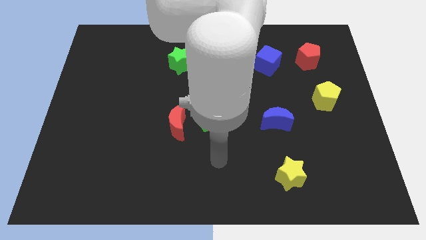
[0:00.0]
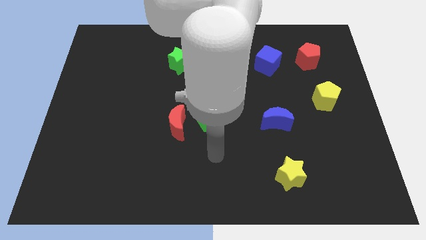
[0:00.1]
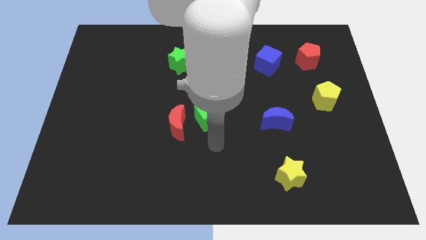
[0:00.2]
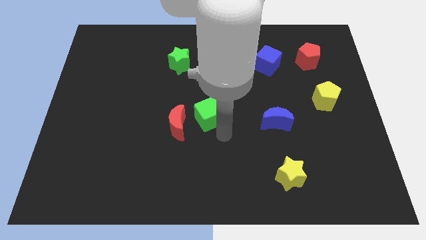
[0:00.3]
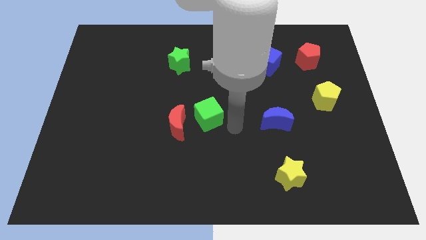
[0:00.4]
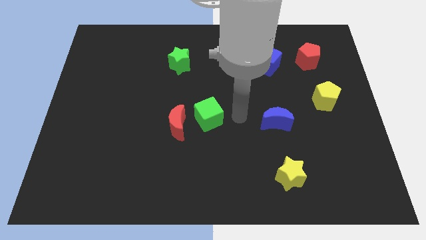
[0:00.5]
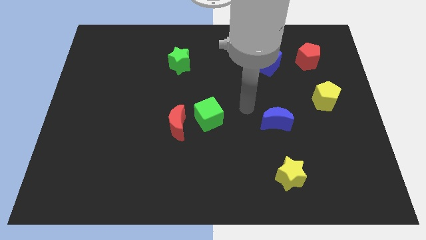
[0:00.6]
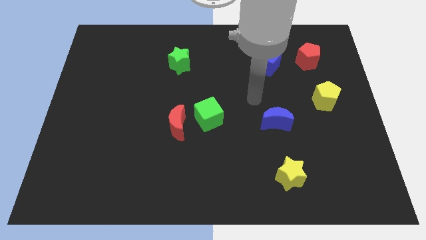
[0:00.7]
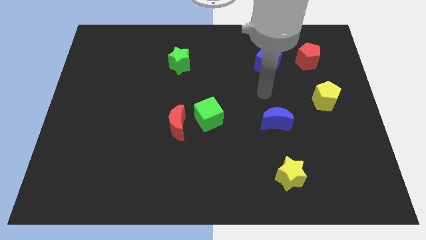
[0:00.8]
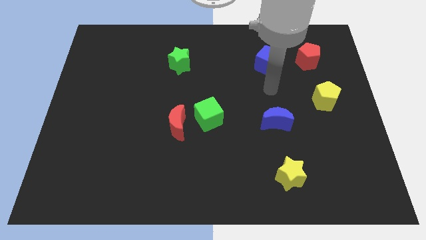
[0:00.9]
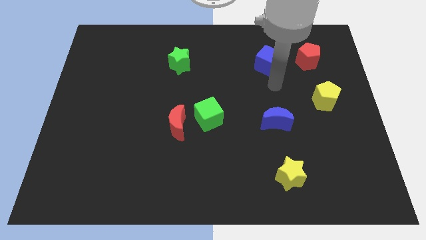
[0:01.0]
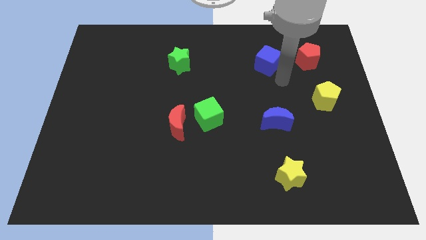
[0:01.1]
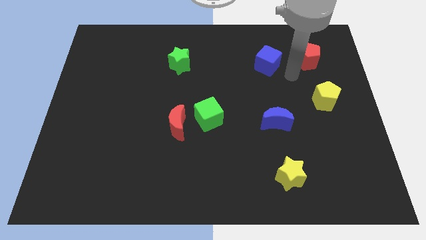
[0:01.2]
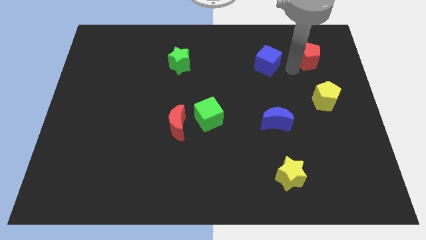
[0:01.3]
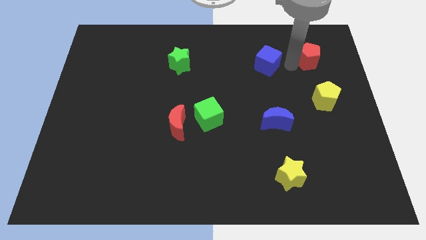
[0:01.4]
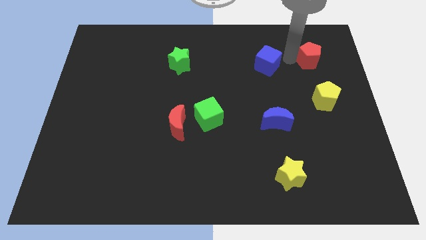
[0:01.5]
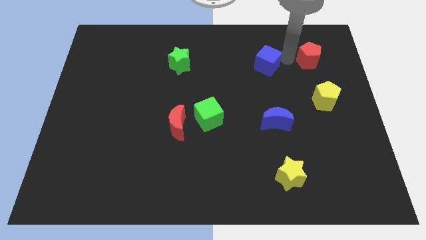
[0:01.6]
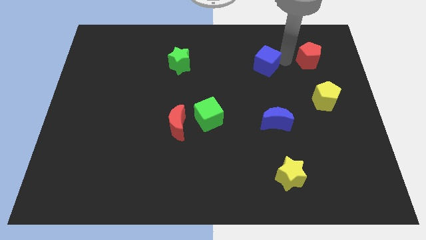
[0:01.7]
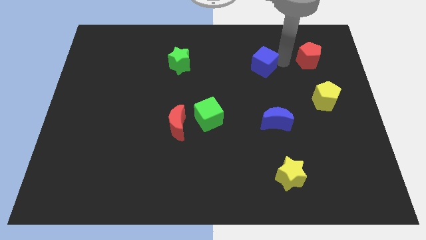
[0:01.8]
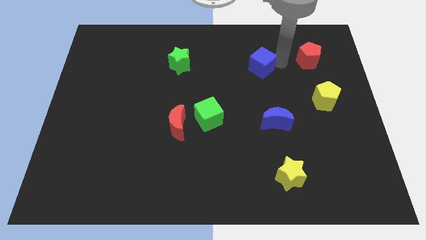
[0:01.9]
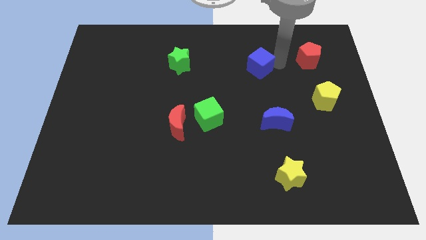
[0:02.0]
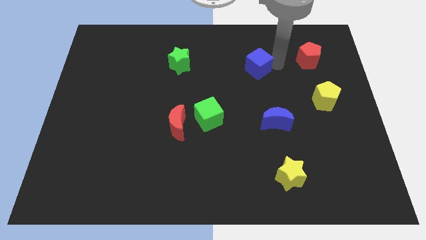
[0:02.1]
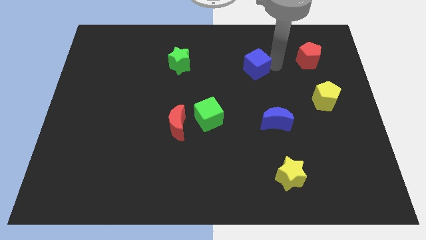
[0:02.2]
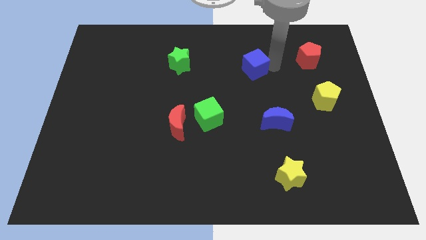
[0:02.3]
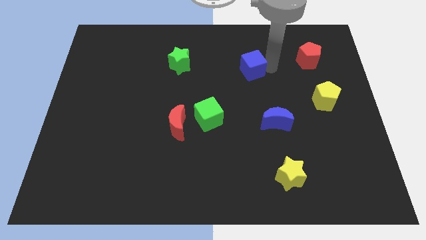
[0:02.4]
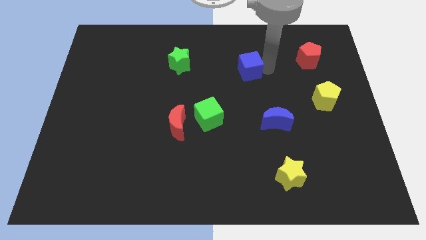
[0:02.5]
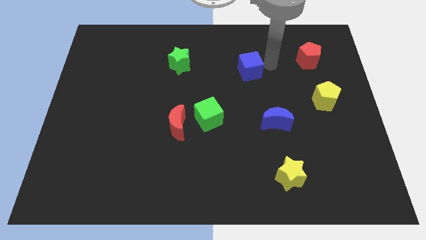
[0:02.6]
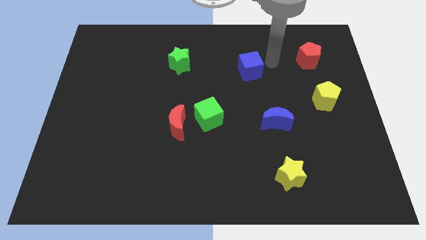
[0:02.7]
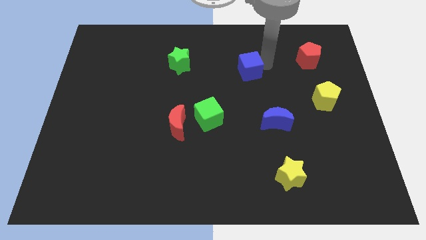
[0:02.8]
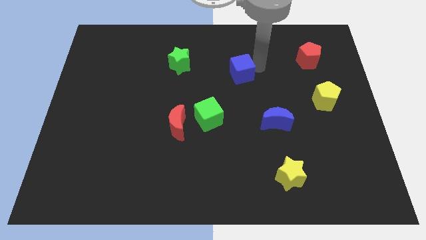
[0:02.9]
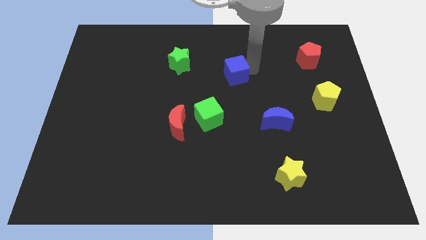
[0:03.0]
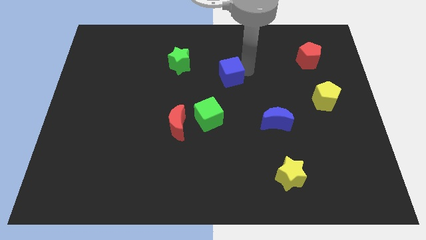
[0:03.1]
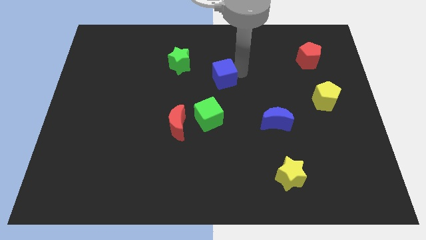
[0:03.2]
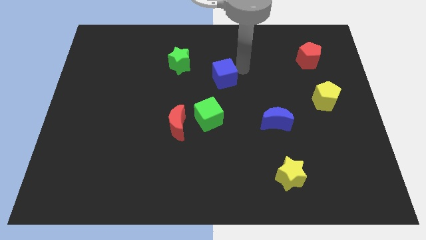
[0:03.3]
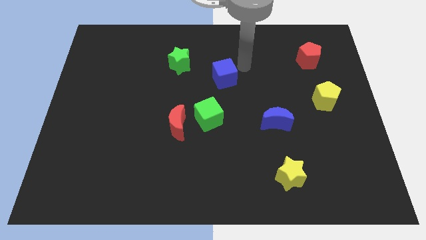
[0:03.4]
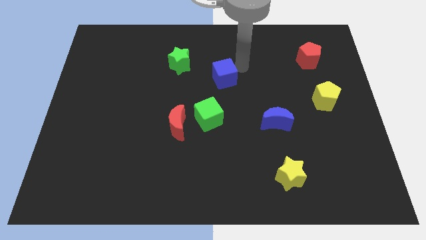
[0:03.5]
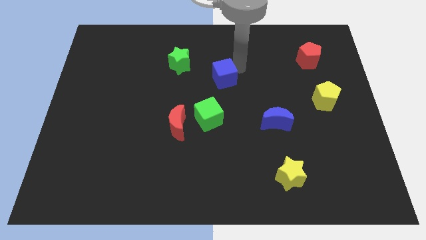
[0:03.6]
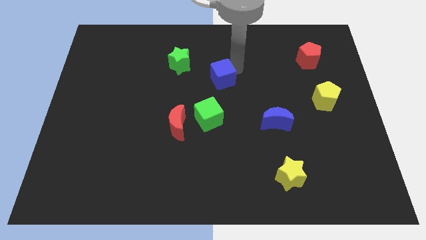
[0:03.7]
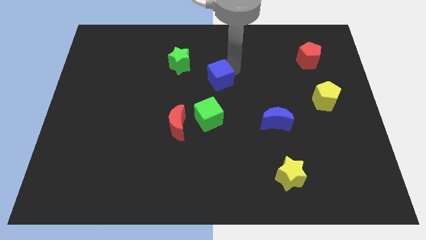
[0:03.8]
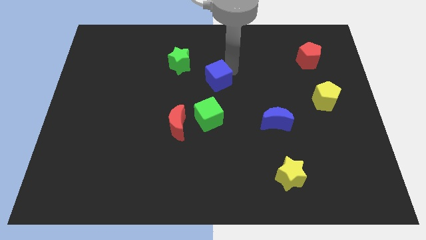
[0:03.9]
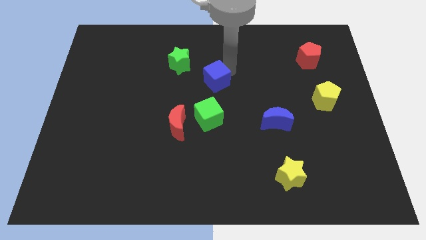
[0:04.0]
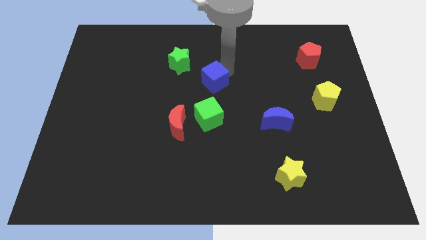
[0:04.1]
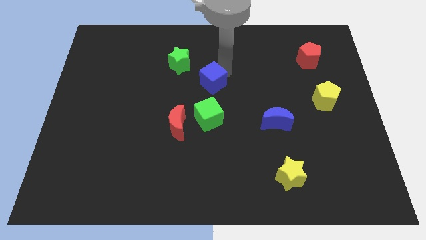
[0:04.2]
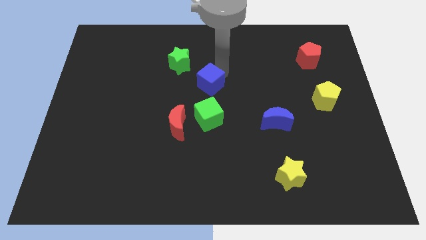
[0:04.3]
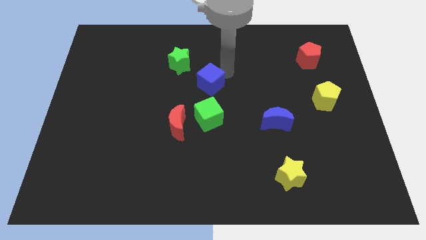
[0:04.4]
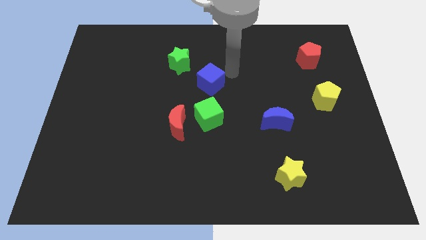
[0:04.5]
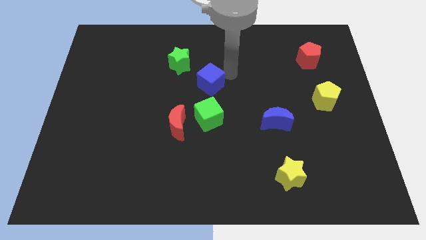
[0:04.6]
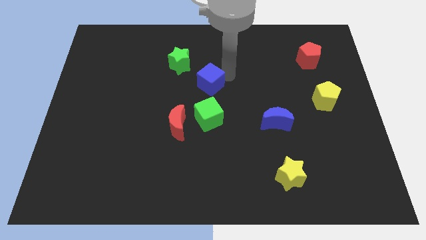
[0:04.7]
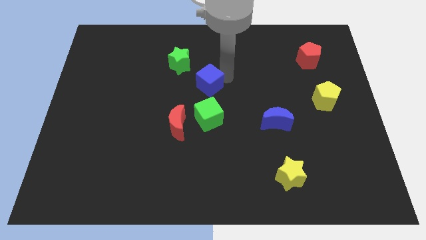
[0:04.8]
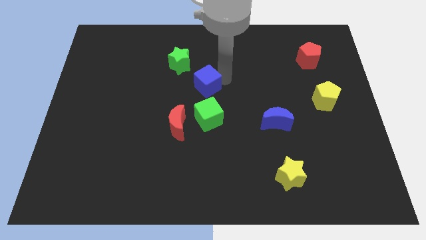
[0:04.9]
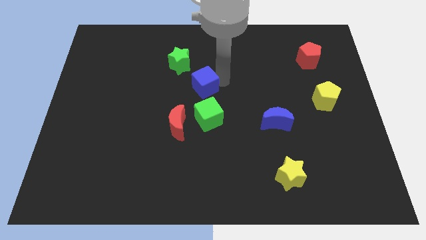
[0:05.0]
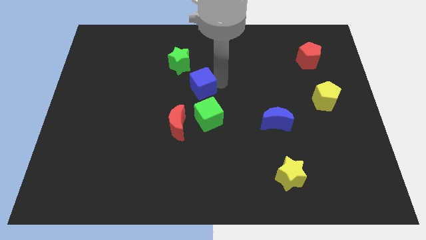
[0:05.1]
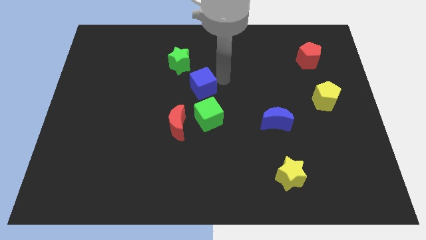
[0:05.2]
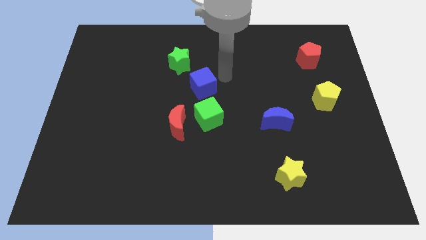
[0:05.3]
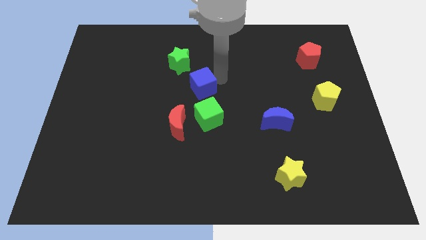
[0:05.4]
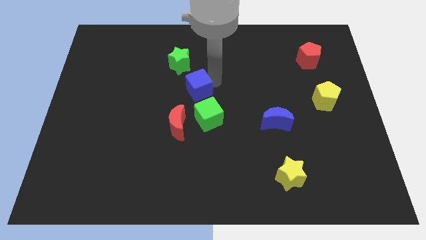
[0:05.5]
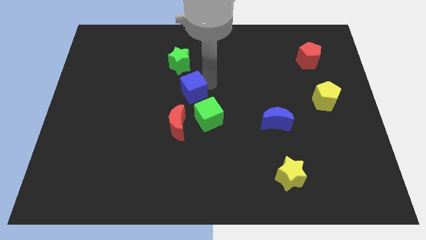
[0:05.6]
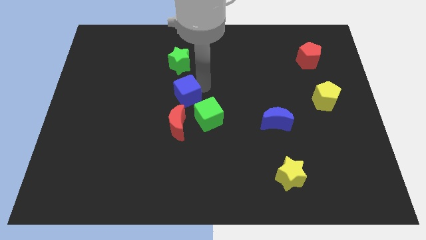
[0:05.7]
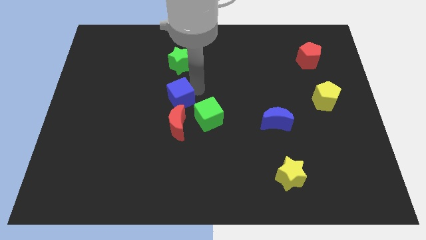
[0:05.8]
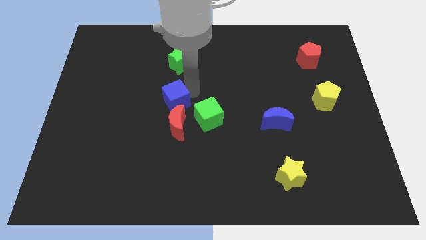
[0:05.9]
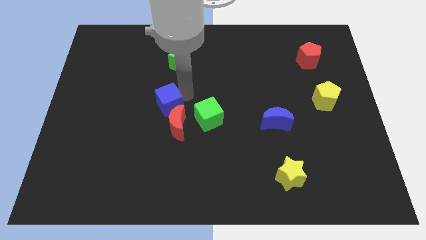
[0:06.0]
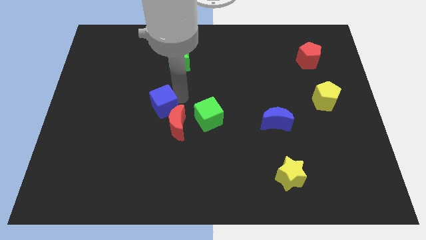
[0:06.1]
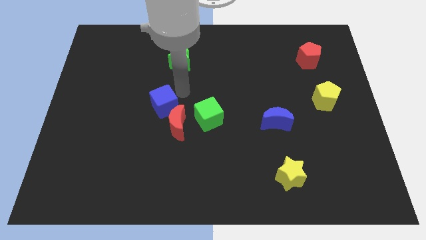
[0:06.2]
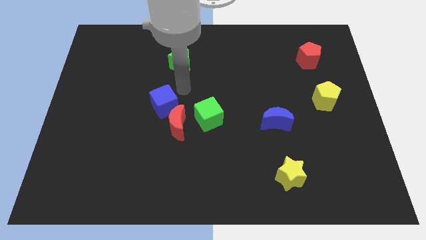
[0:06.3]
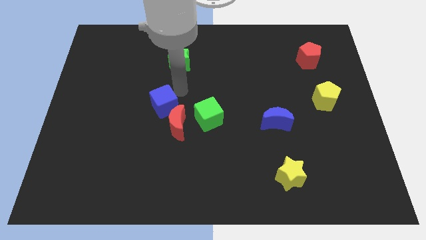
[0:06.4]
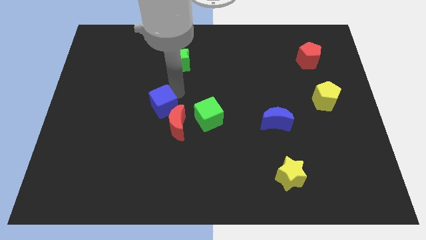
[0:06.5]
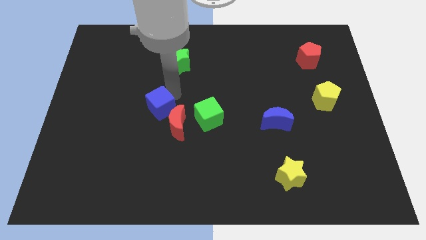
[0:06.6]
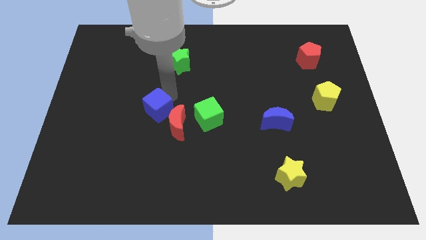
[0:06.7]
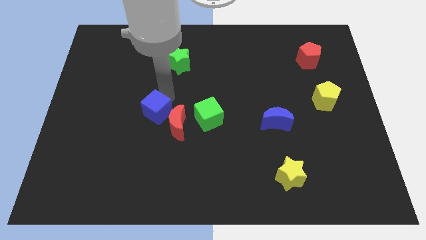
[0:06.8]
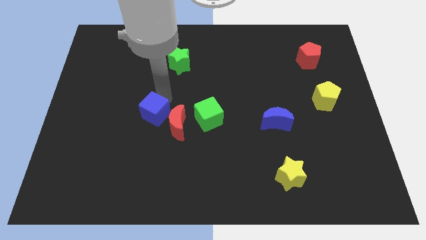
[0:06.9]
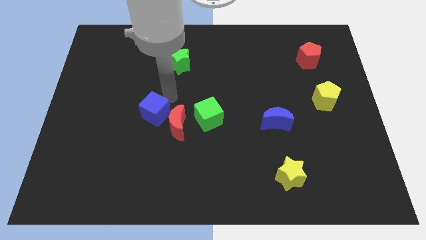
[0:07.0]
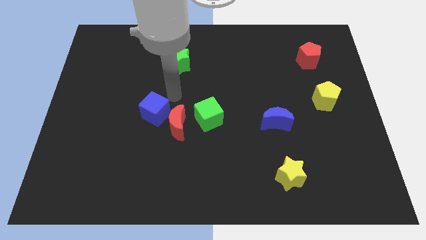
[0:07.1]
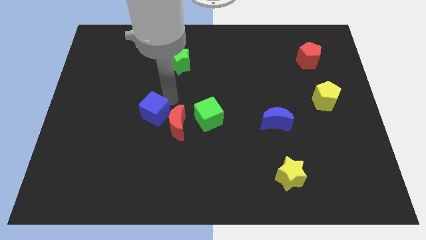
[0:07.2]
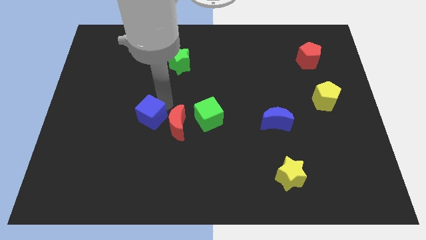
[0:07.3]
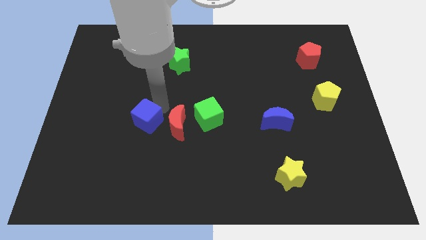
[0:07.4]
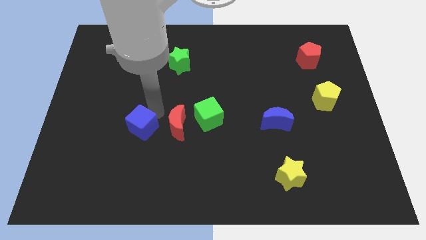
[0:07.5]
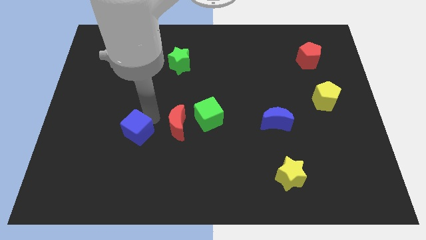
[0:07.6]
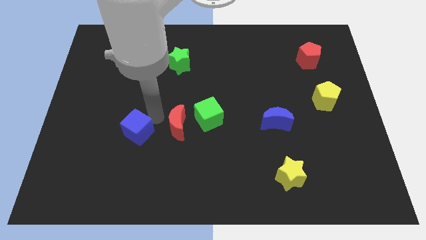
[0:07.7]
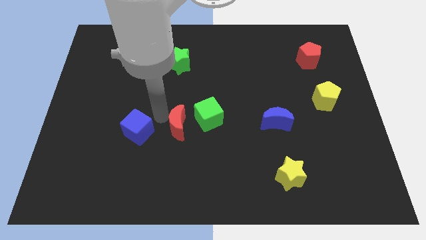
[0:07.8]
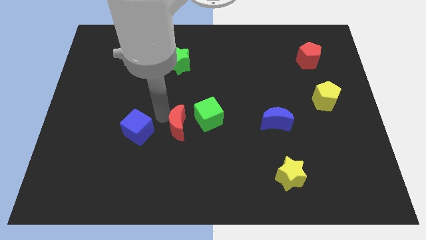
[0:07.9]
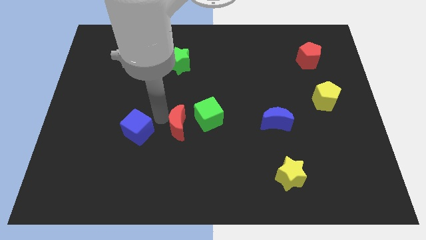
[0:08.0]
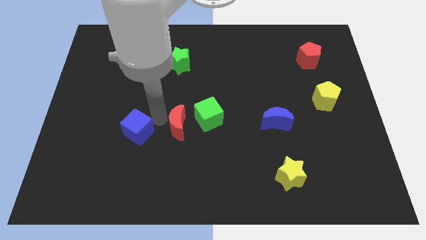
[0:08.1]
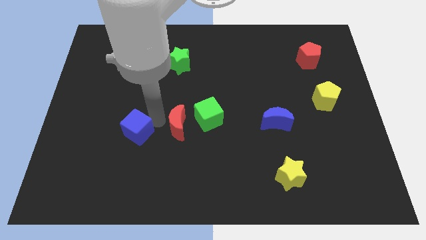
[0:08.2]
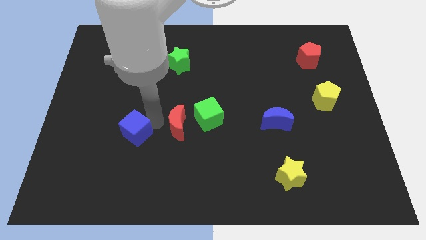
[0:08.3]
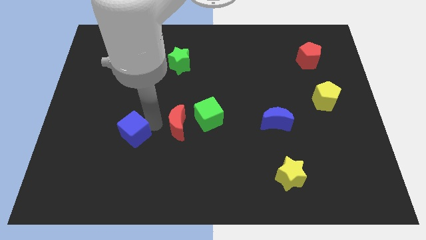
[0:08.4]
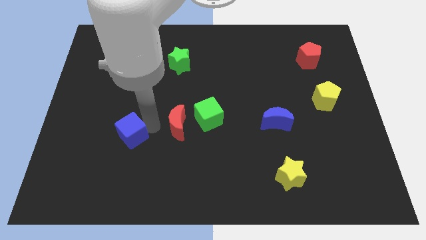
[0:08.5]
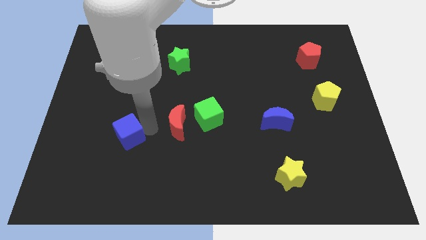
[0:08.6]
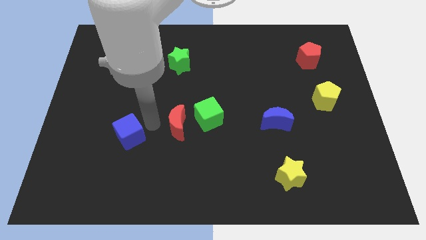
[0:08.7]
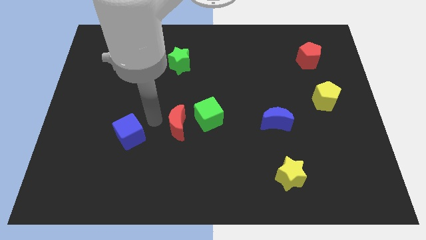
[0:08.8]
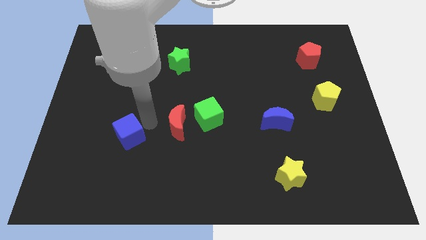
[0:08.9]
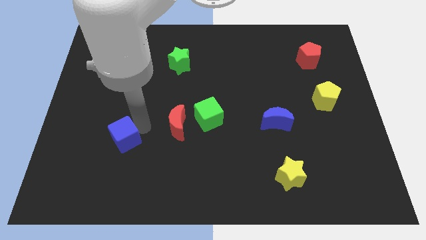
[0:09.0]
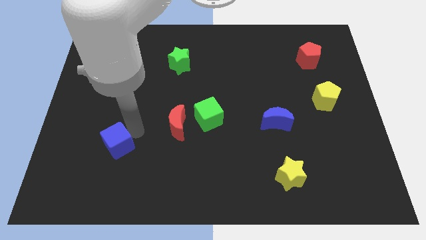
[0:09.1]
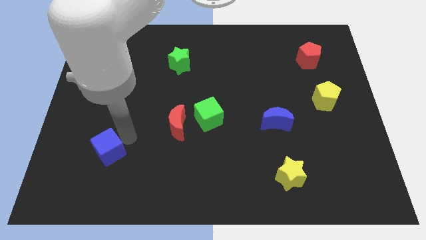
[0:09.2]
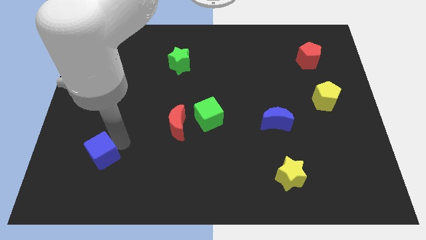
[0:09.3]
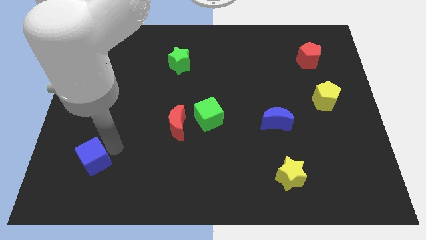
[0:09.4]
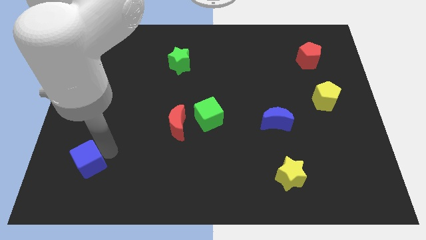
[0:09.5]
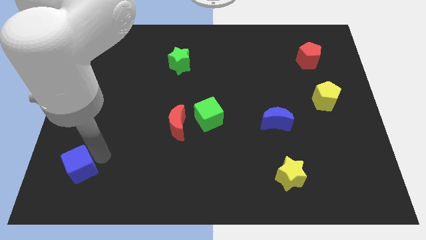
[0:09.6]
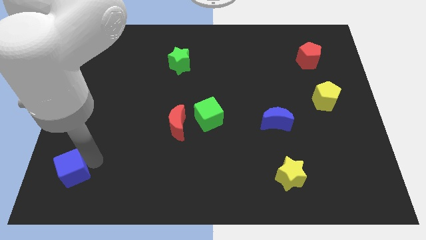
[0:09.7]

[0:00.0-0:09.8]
push the blue cube to the lower left corner
